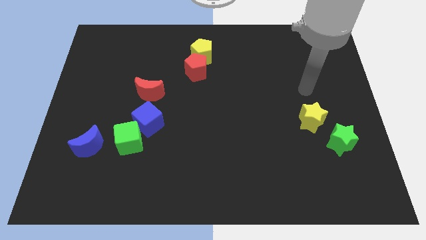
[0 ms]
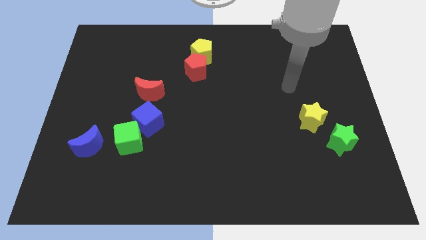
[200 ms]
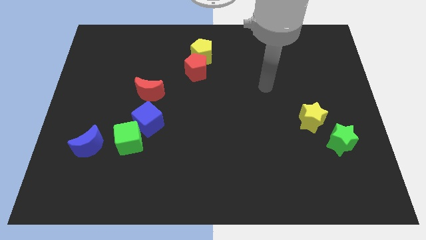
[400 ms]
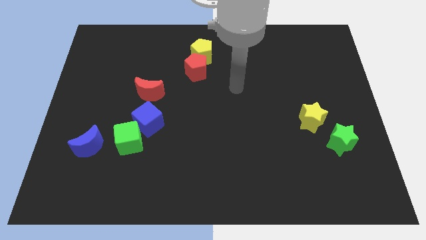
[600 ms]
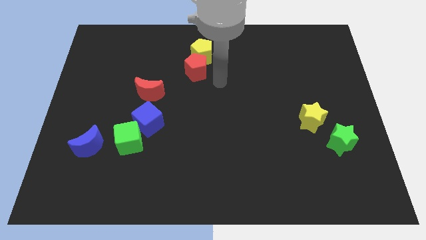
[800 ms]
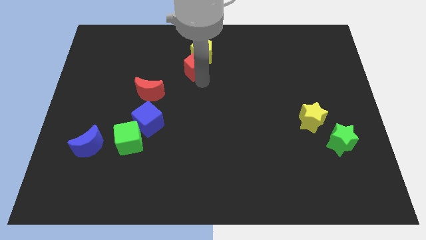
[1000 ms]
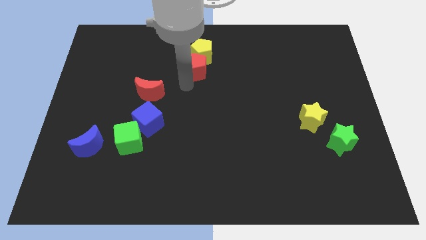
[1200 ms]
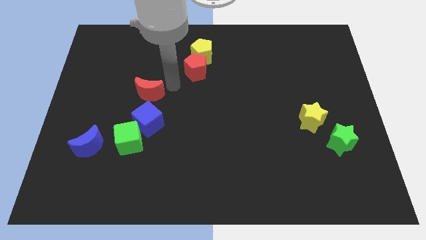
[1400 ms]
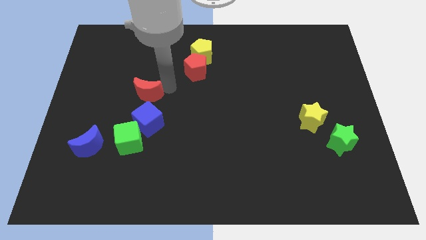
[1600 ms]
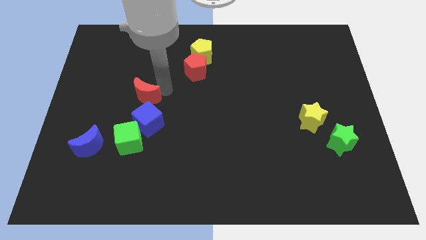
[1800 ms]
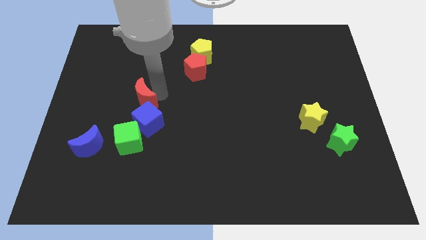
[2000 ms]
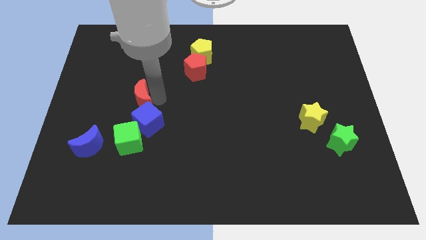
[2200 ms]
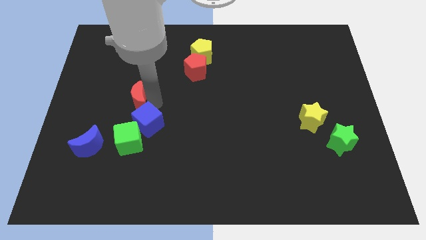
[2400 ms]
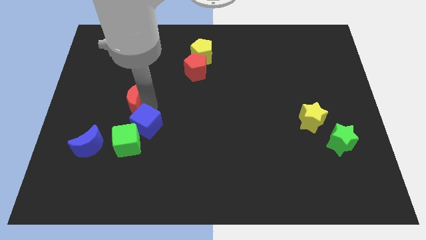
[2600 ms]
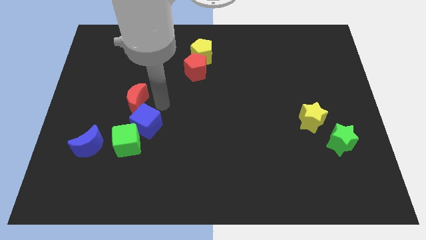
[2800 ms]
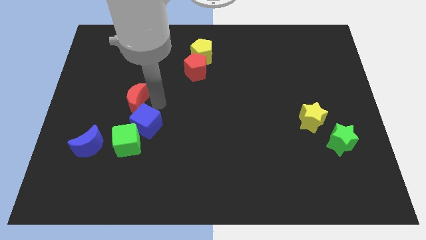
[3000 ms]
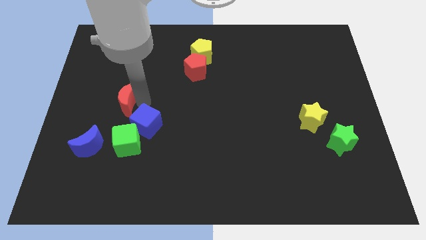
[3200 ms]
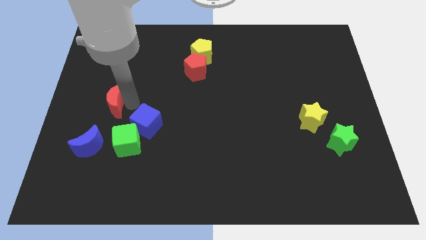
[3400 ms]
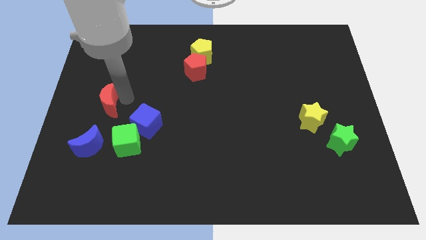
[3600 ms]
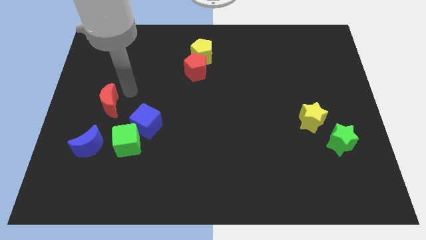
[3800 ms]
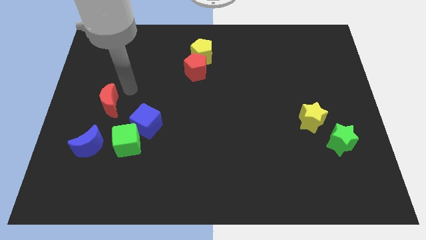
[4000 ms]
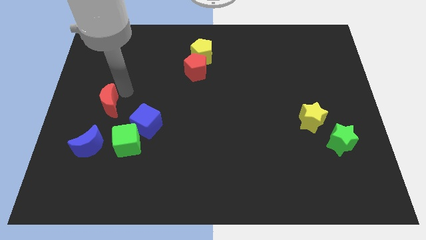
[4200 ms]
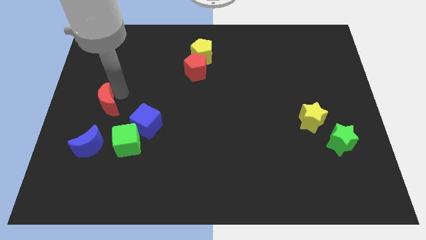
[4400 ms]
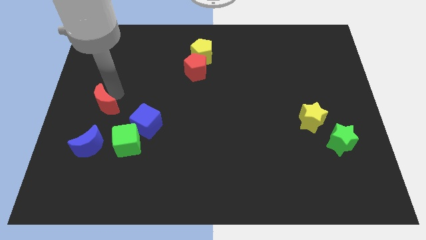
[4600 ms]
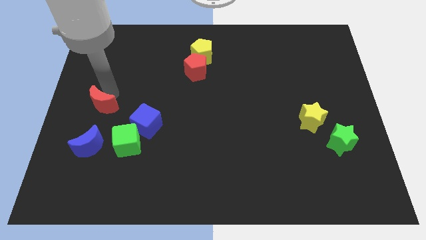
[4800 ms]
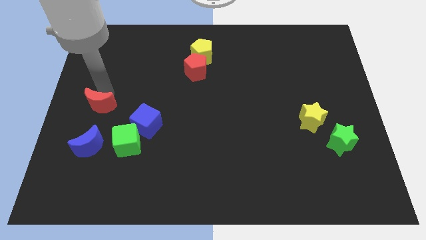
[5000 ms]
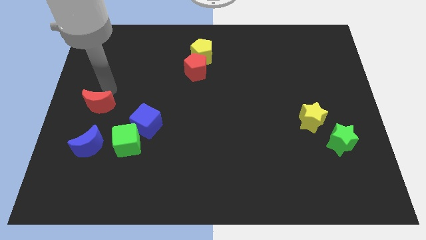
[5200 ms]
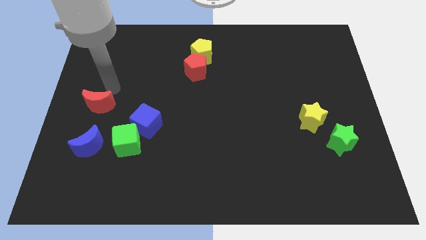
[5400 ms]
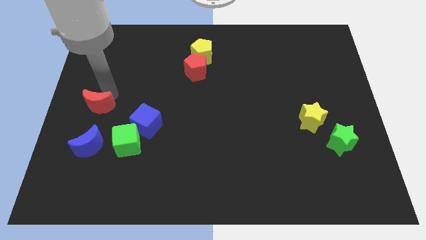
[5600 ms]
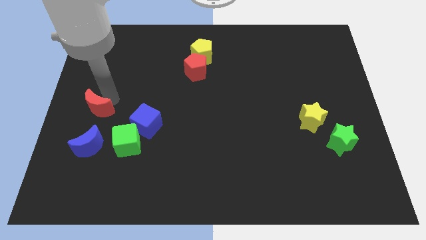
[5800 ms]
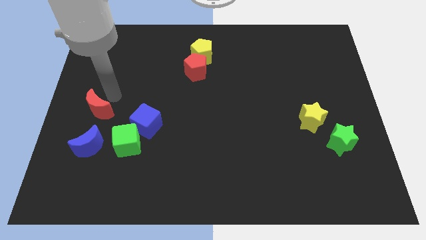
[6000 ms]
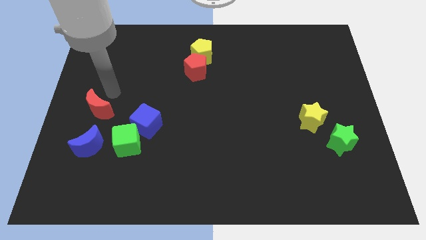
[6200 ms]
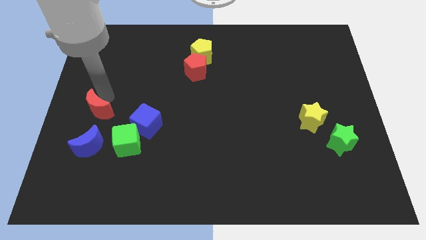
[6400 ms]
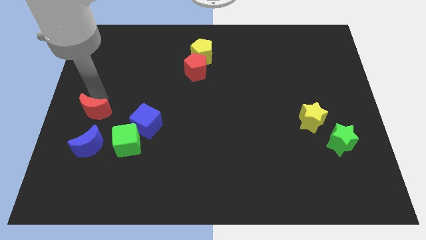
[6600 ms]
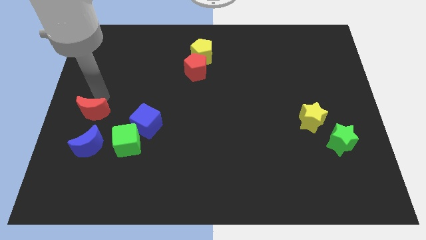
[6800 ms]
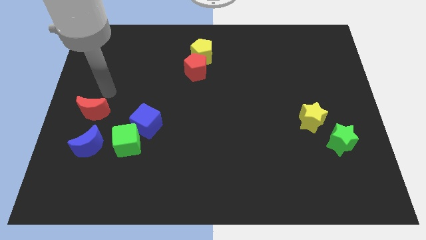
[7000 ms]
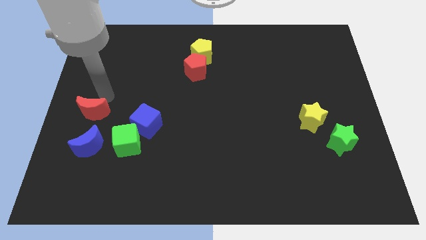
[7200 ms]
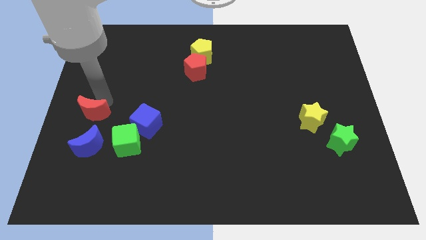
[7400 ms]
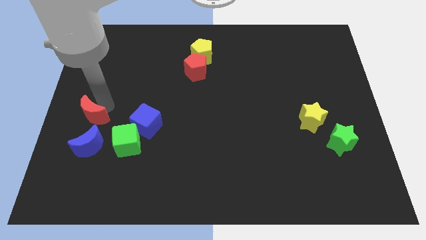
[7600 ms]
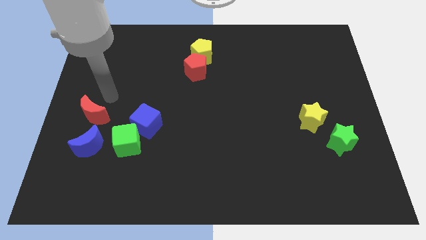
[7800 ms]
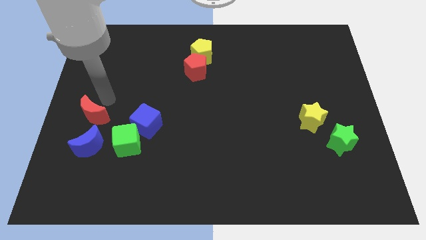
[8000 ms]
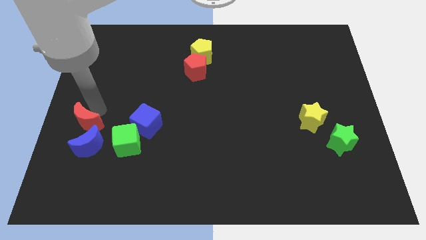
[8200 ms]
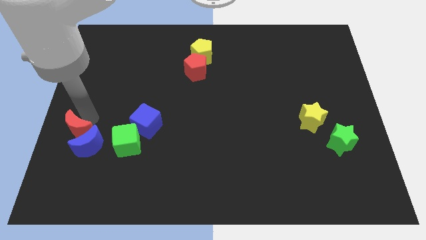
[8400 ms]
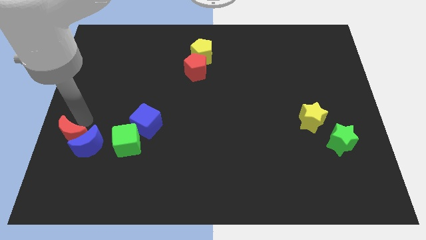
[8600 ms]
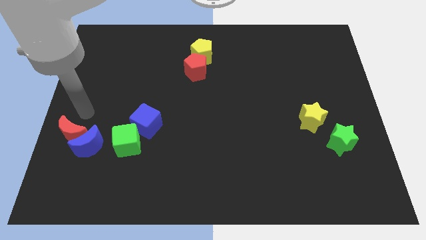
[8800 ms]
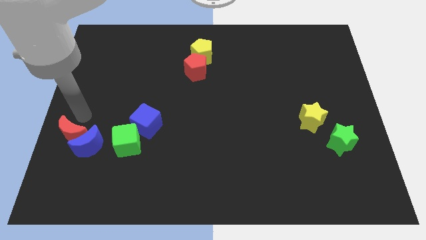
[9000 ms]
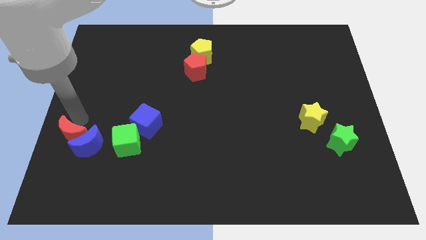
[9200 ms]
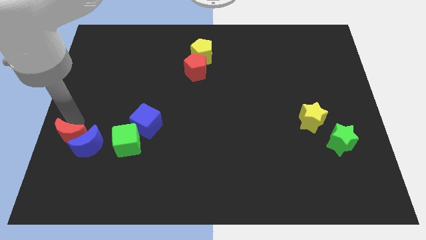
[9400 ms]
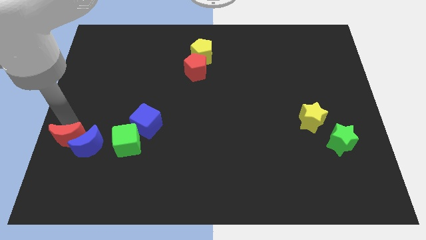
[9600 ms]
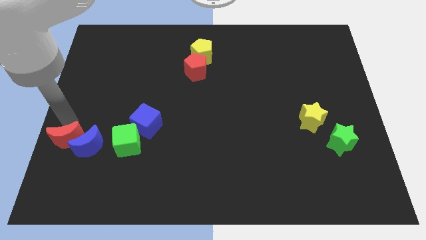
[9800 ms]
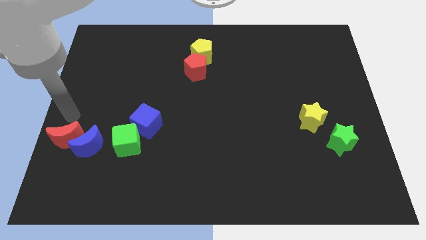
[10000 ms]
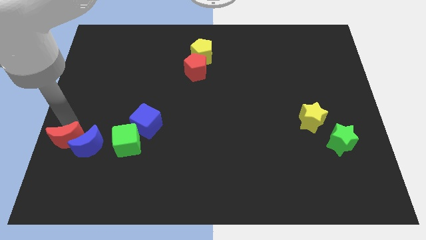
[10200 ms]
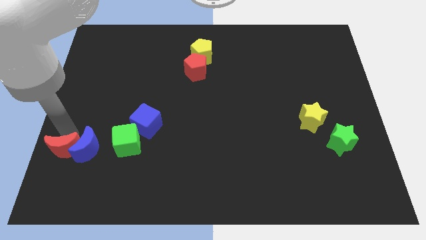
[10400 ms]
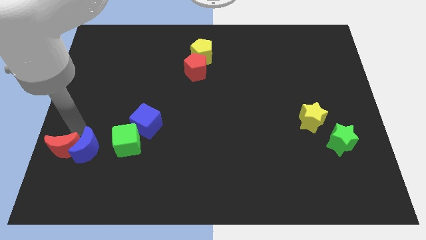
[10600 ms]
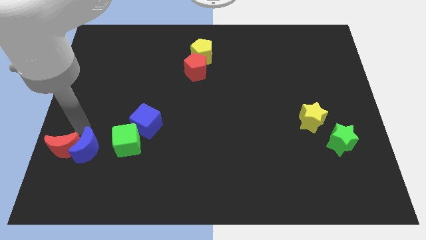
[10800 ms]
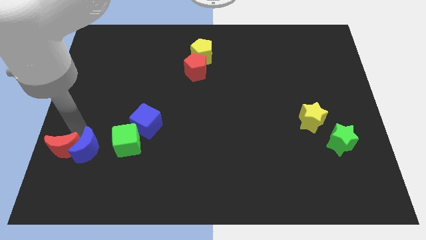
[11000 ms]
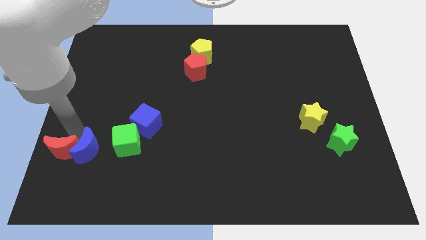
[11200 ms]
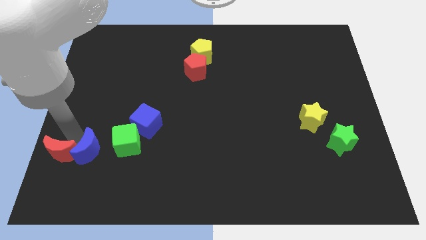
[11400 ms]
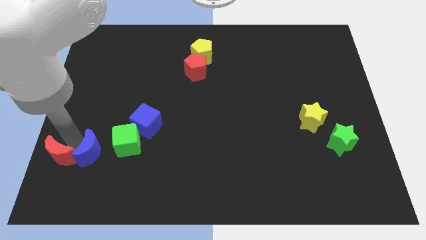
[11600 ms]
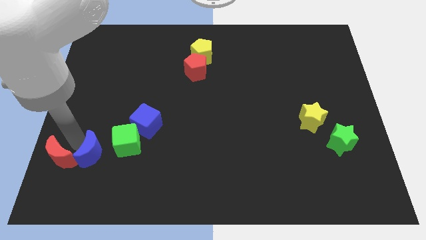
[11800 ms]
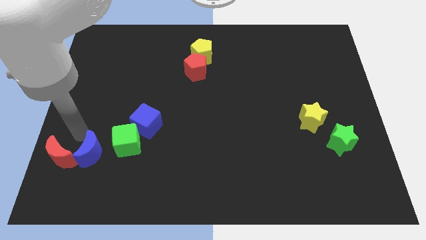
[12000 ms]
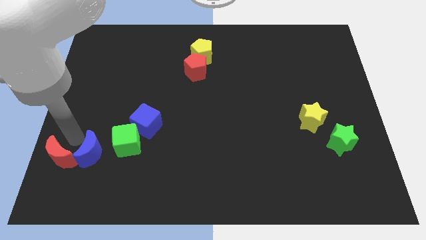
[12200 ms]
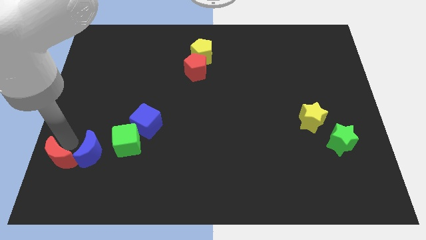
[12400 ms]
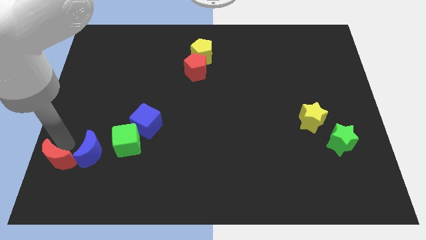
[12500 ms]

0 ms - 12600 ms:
put the red moon to the bottom left of the board

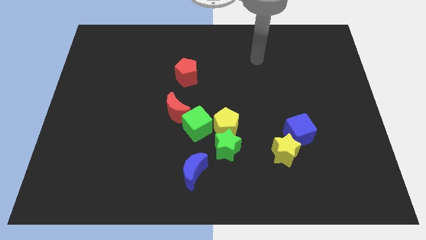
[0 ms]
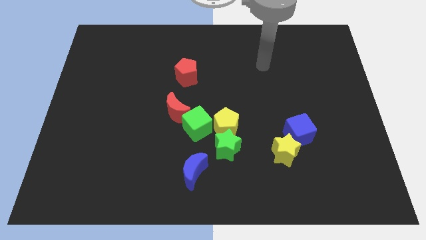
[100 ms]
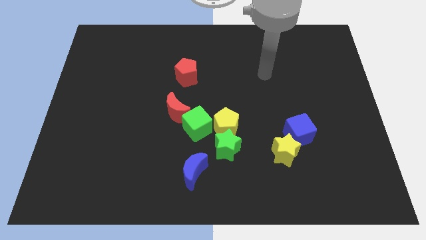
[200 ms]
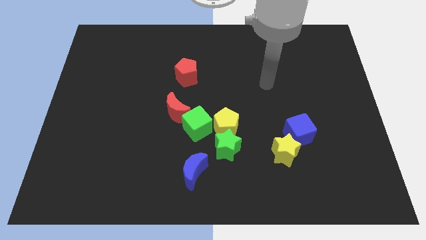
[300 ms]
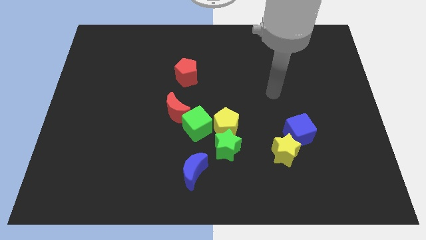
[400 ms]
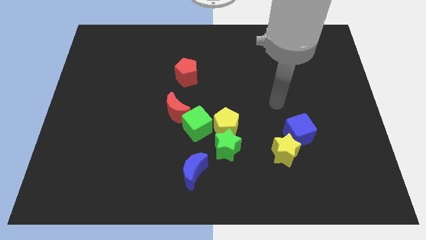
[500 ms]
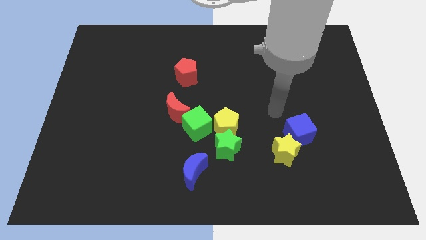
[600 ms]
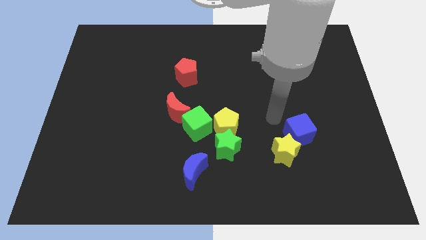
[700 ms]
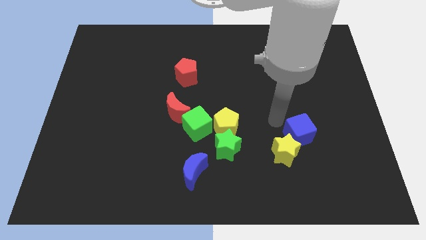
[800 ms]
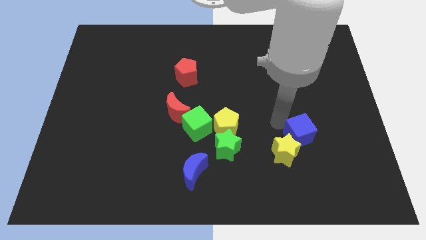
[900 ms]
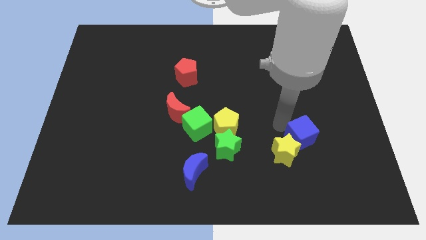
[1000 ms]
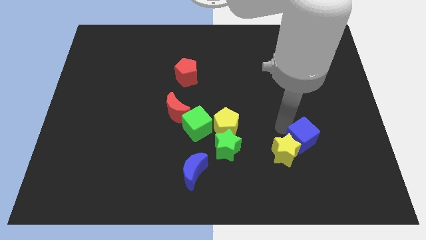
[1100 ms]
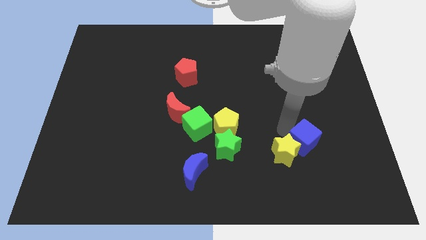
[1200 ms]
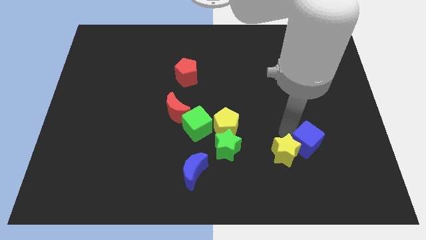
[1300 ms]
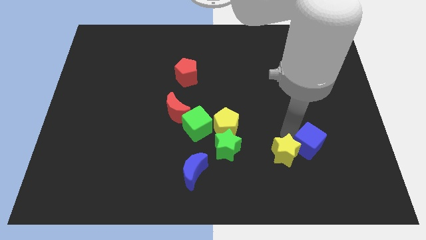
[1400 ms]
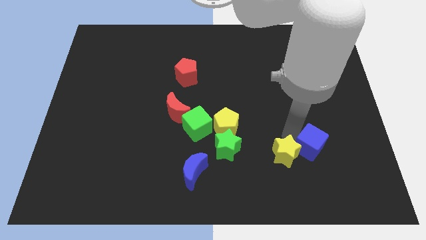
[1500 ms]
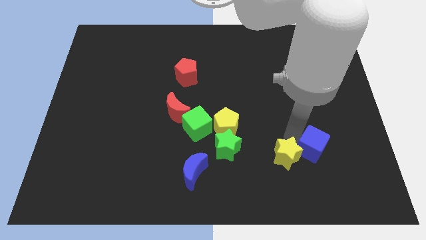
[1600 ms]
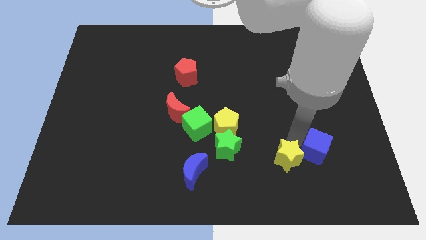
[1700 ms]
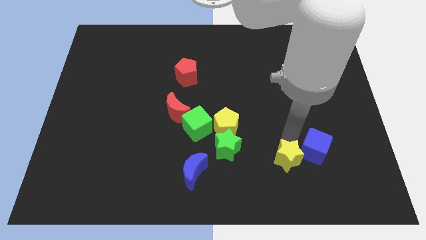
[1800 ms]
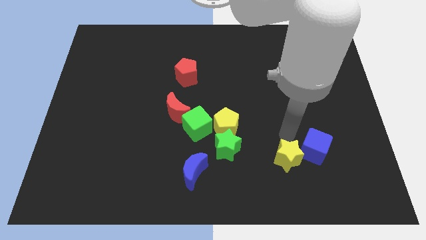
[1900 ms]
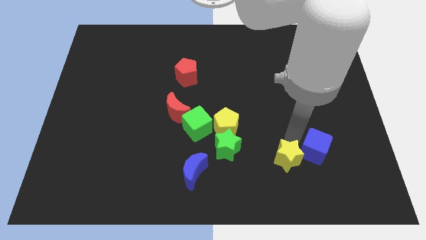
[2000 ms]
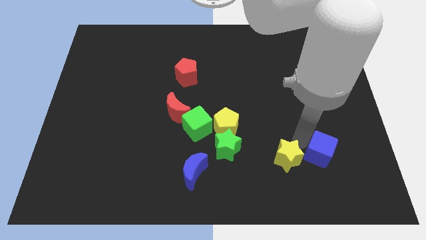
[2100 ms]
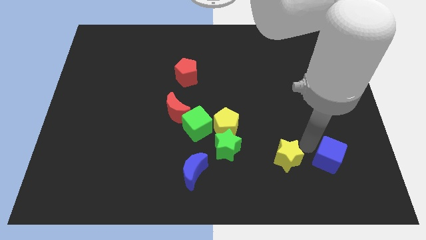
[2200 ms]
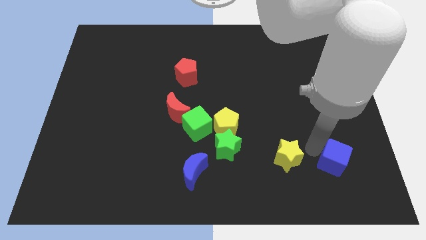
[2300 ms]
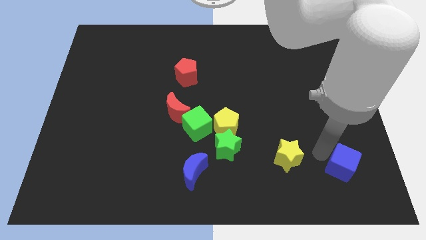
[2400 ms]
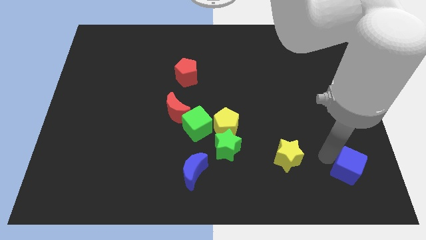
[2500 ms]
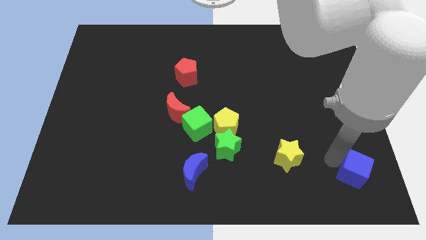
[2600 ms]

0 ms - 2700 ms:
slide the blue cube to the bottom right corner
